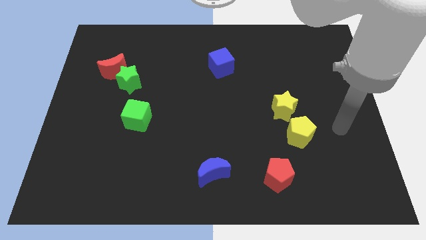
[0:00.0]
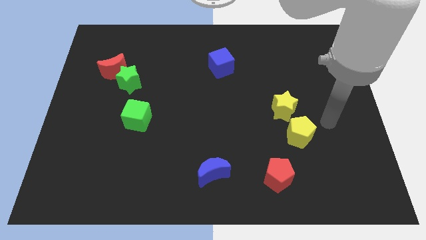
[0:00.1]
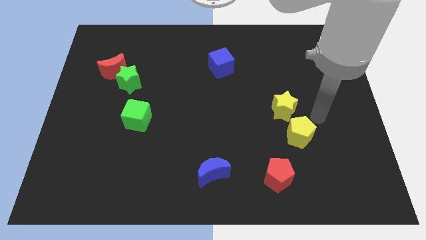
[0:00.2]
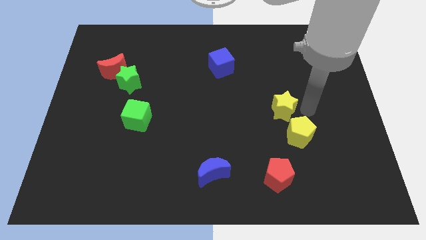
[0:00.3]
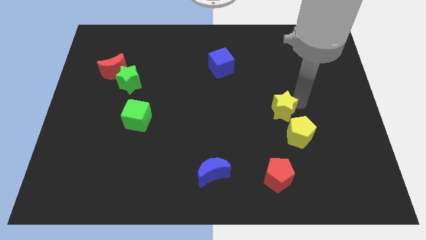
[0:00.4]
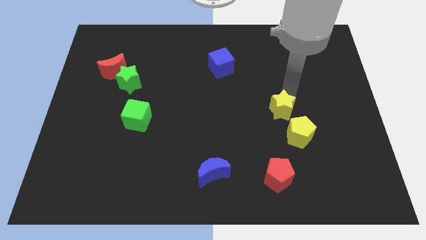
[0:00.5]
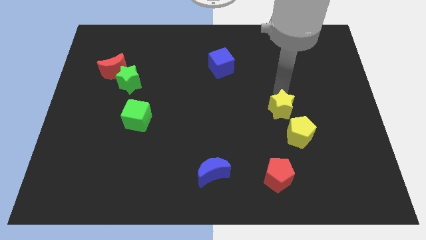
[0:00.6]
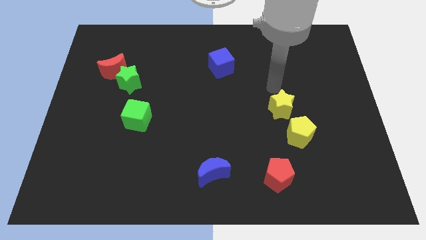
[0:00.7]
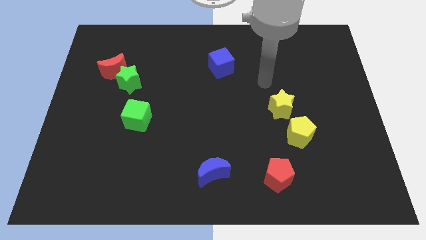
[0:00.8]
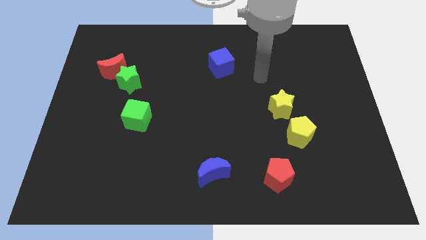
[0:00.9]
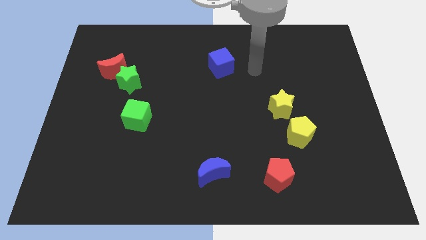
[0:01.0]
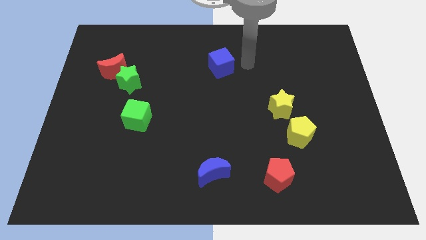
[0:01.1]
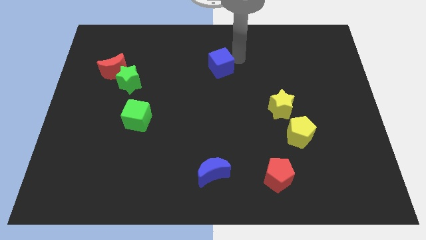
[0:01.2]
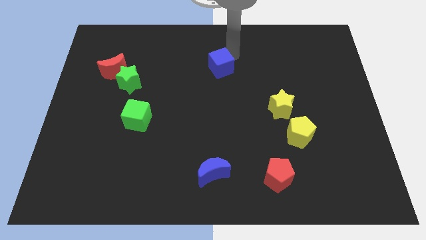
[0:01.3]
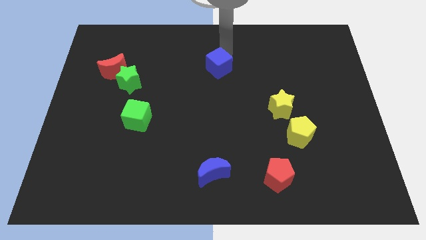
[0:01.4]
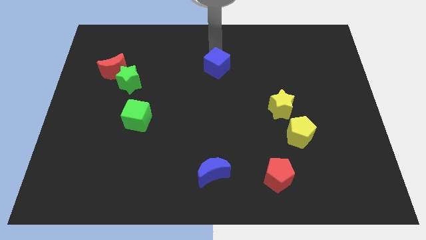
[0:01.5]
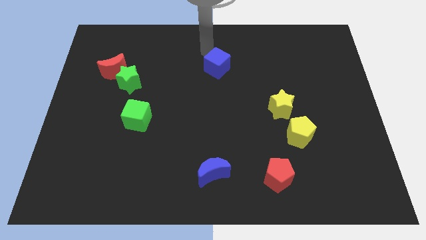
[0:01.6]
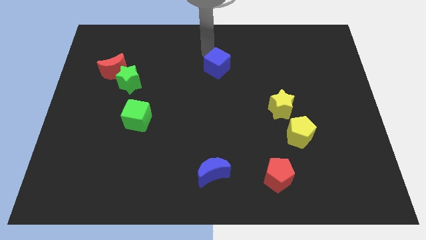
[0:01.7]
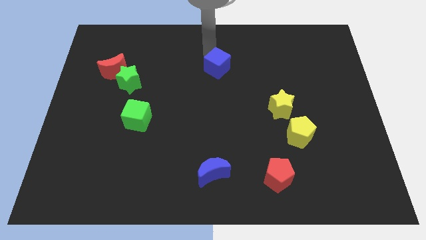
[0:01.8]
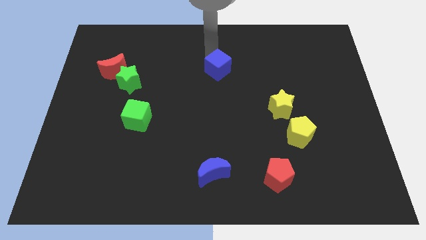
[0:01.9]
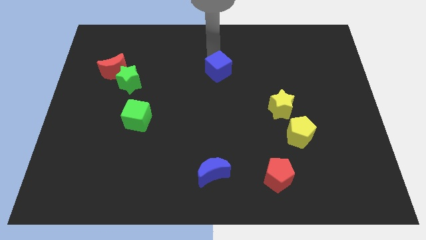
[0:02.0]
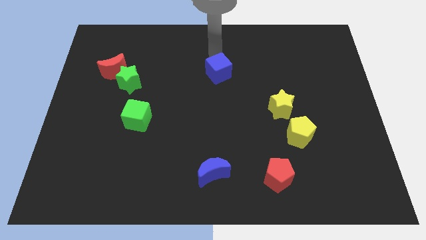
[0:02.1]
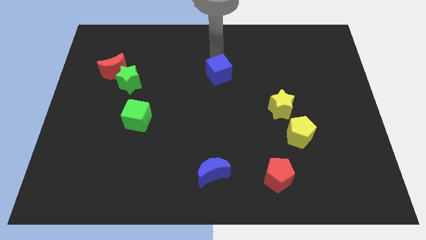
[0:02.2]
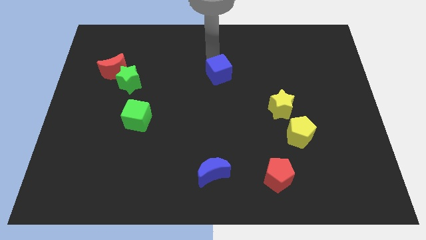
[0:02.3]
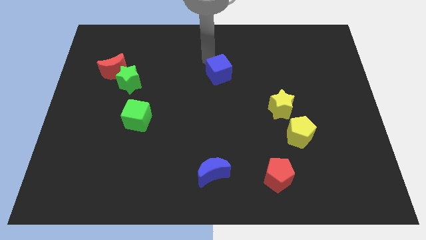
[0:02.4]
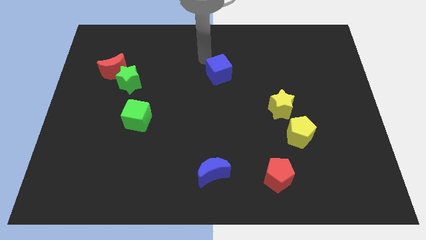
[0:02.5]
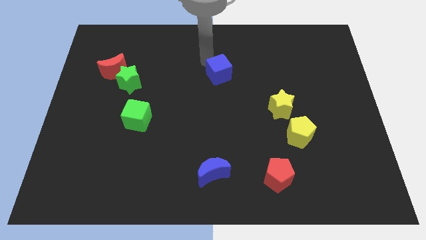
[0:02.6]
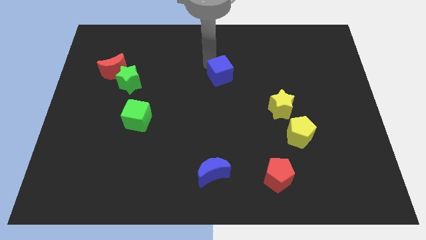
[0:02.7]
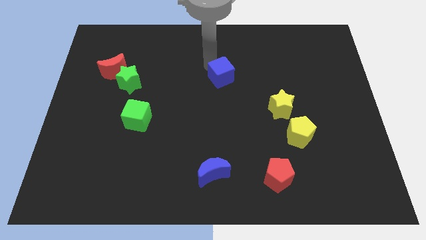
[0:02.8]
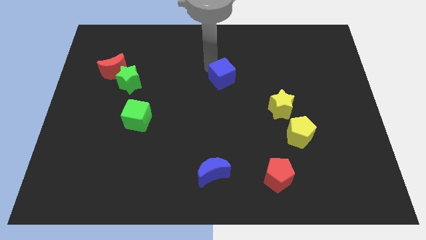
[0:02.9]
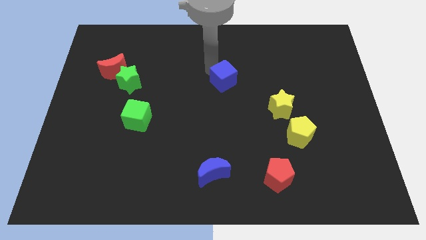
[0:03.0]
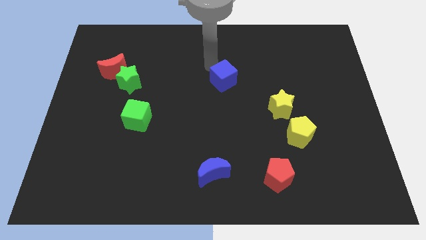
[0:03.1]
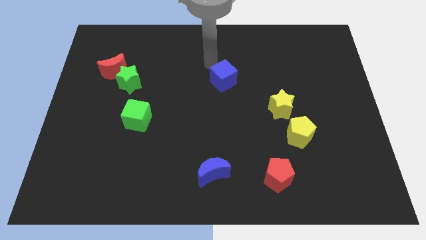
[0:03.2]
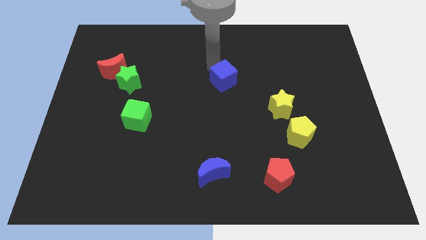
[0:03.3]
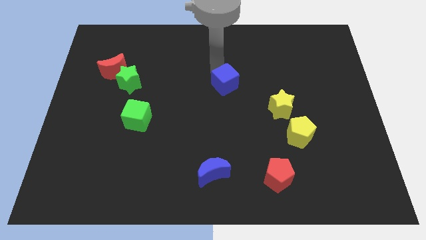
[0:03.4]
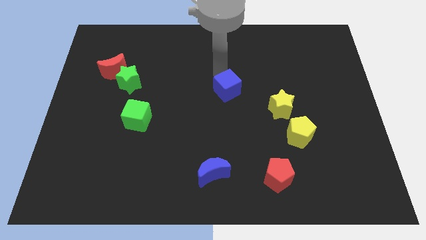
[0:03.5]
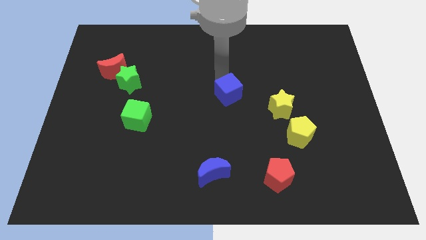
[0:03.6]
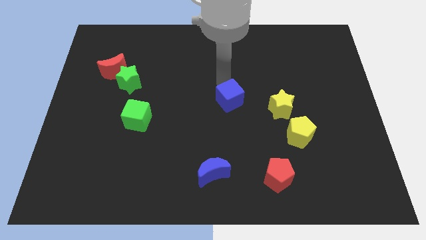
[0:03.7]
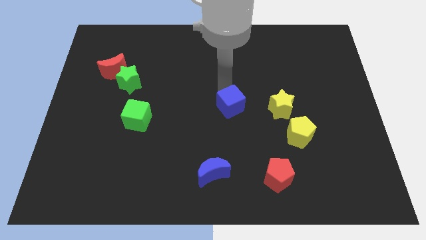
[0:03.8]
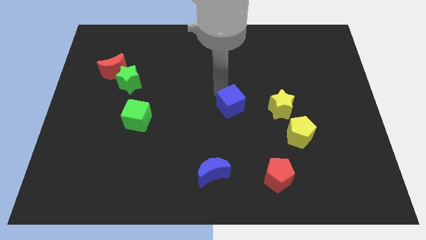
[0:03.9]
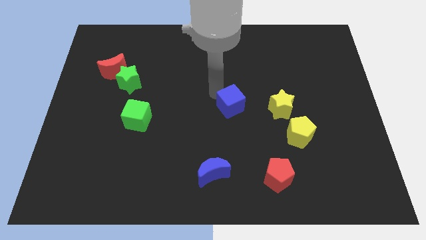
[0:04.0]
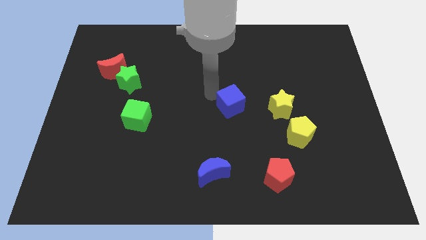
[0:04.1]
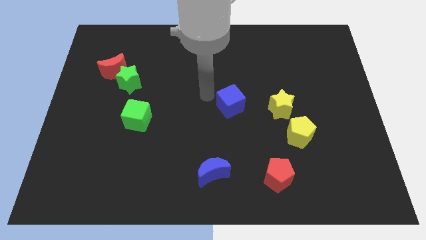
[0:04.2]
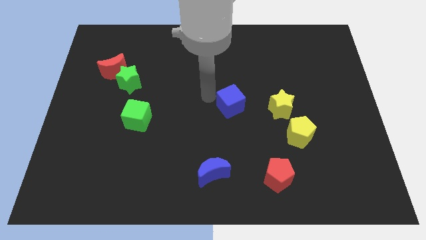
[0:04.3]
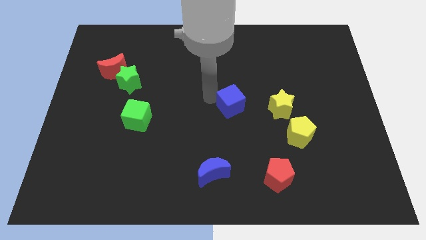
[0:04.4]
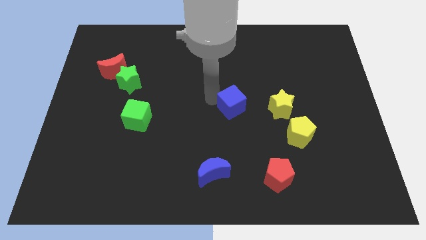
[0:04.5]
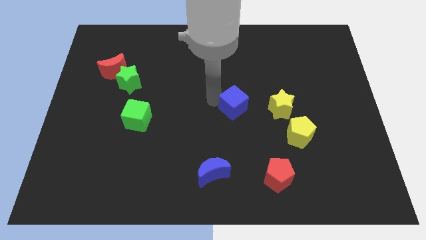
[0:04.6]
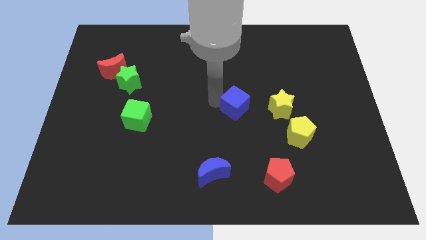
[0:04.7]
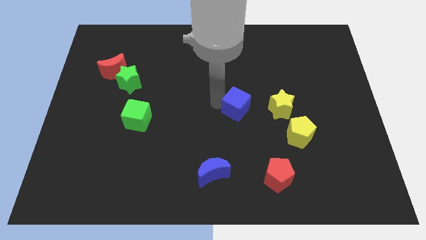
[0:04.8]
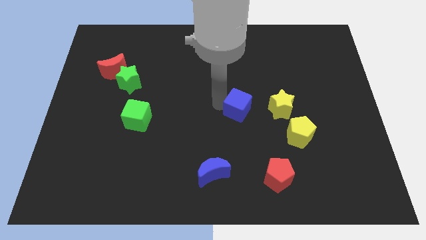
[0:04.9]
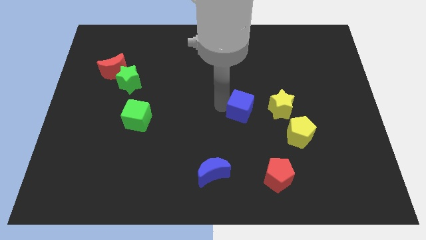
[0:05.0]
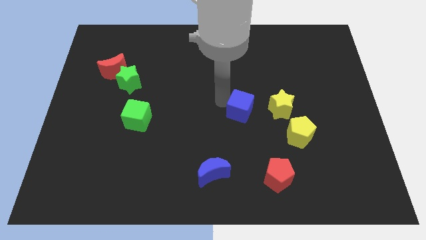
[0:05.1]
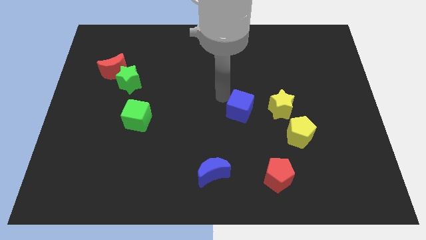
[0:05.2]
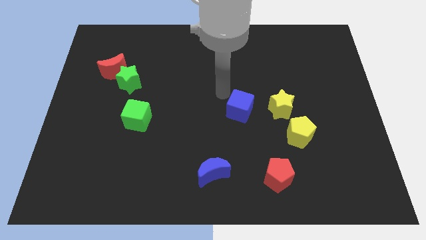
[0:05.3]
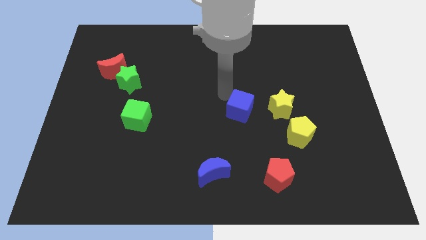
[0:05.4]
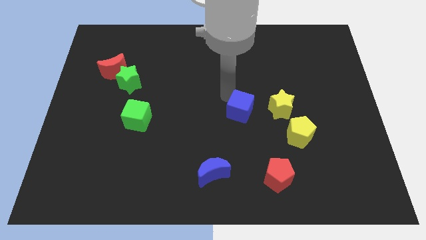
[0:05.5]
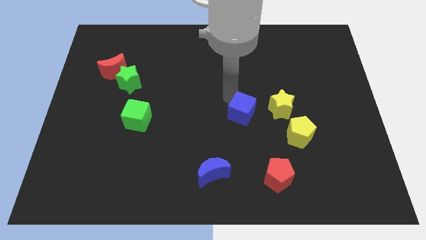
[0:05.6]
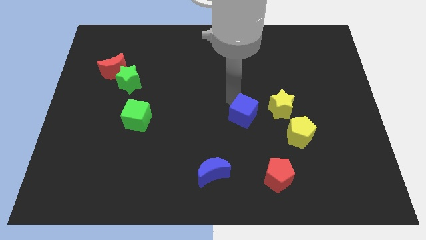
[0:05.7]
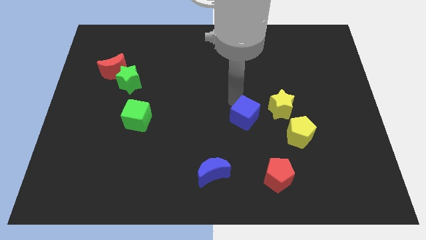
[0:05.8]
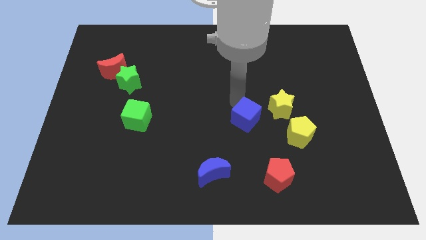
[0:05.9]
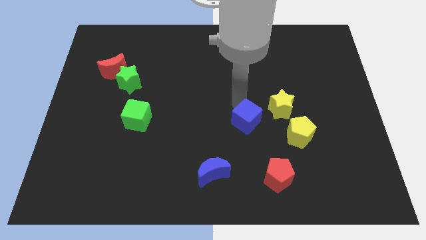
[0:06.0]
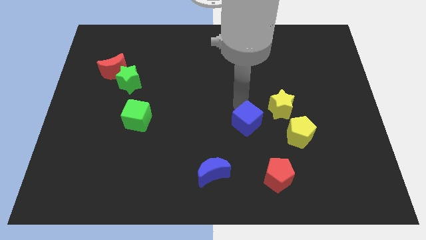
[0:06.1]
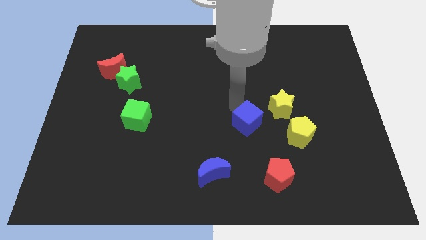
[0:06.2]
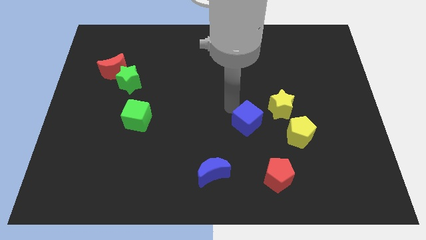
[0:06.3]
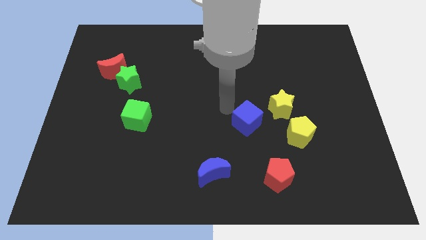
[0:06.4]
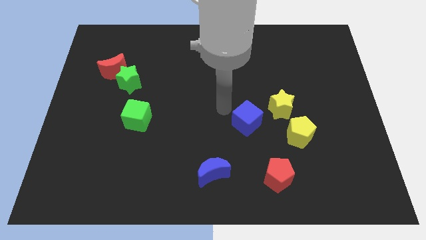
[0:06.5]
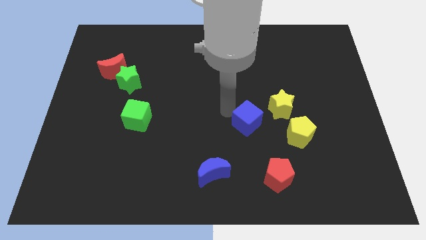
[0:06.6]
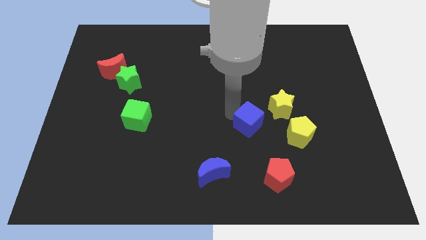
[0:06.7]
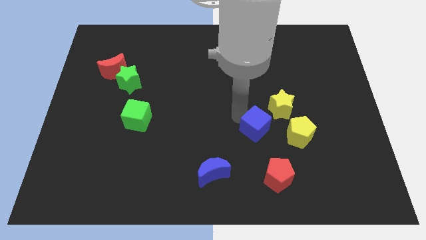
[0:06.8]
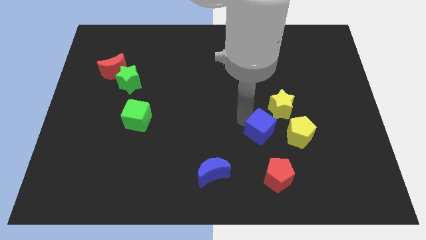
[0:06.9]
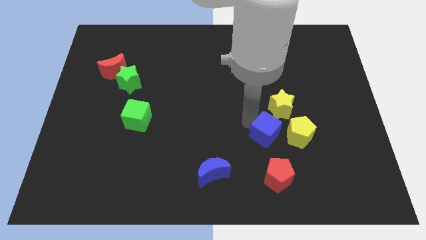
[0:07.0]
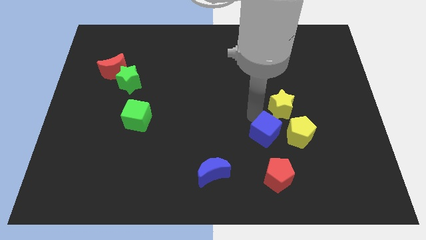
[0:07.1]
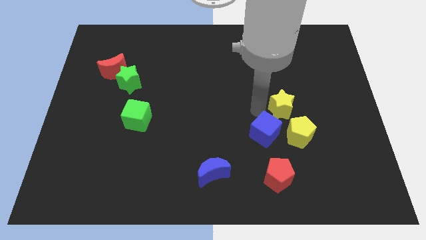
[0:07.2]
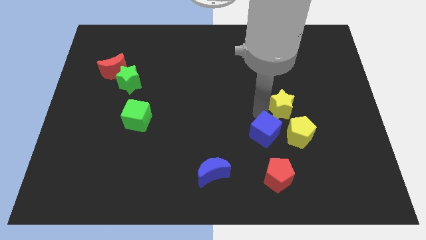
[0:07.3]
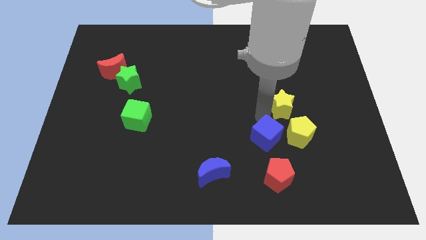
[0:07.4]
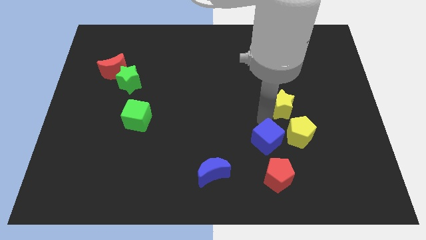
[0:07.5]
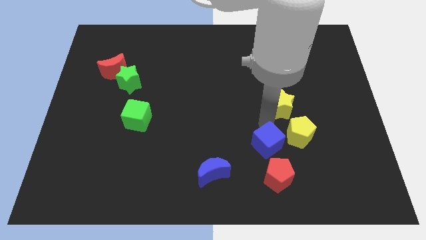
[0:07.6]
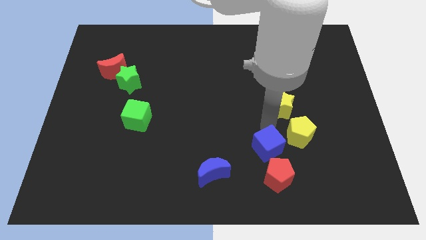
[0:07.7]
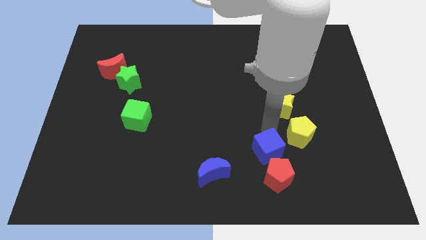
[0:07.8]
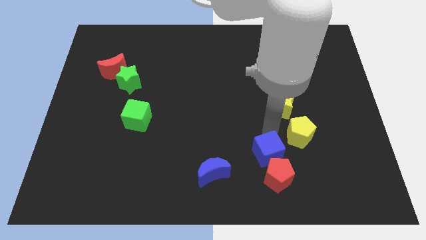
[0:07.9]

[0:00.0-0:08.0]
slide the blue cube towards the red pentagon
